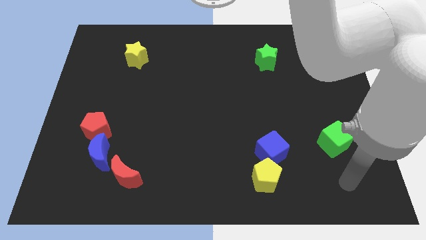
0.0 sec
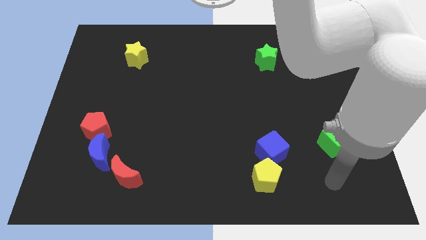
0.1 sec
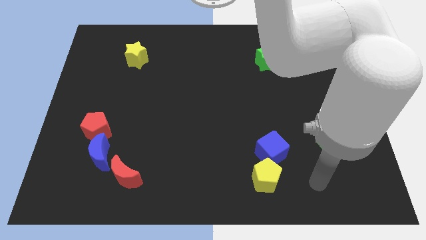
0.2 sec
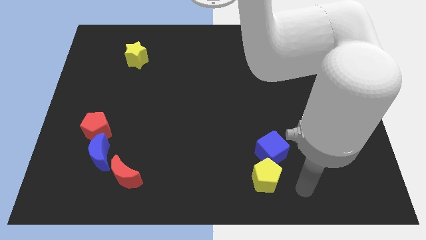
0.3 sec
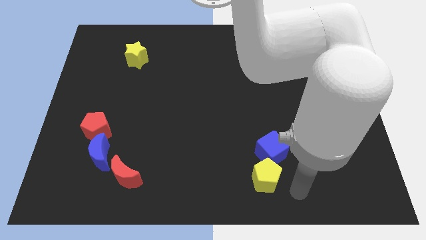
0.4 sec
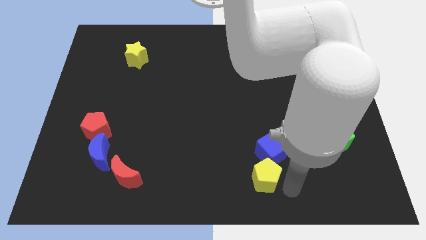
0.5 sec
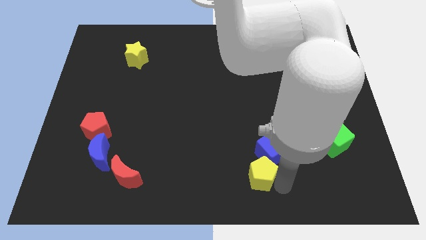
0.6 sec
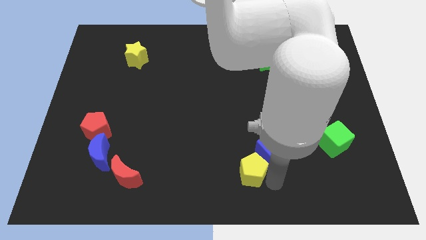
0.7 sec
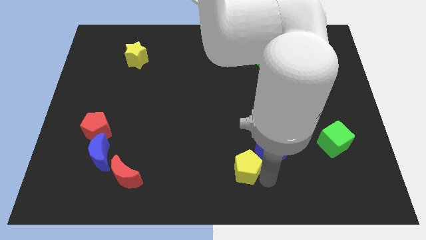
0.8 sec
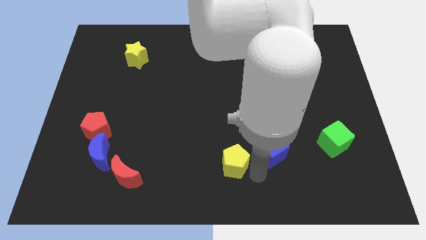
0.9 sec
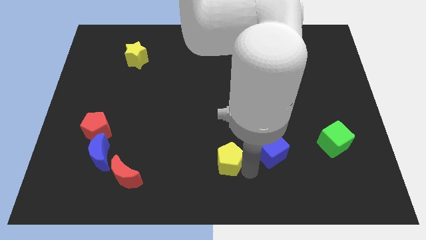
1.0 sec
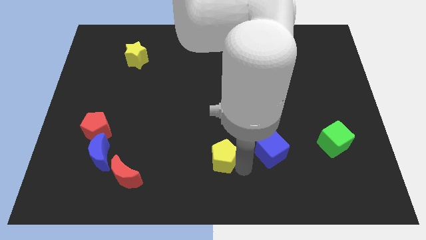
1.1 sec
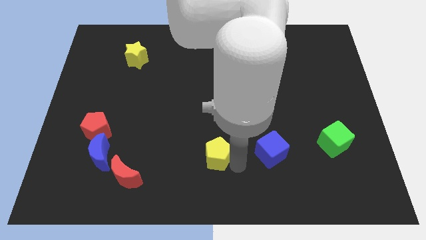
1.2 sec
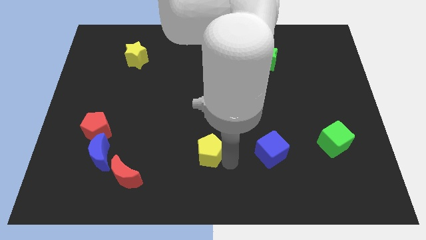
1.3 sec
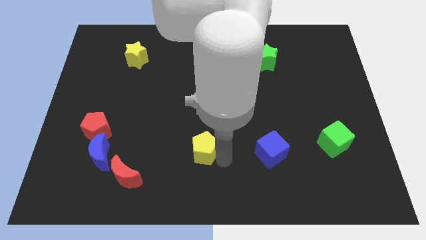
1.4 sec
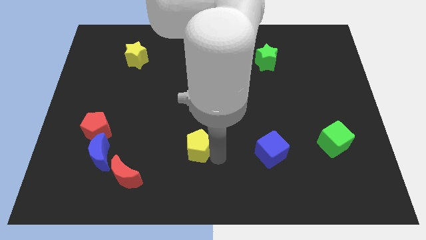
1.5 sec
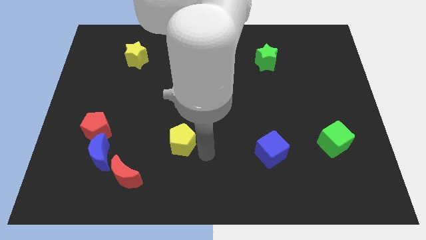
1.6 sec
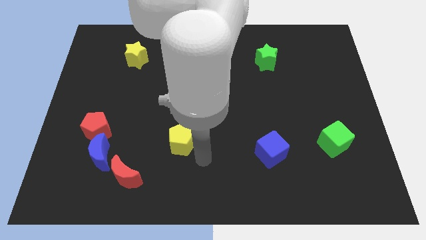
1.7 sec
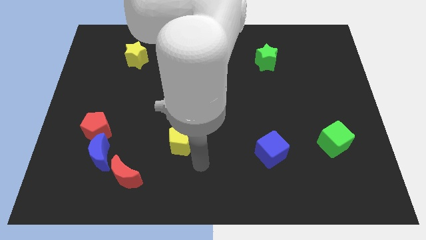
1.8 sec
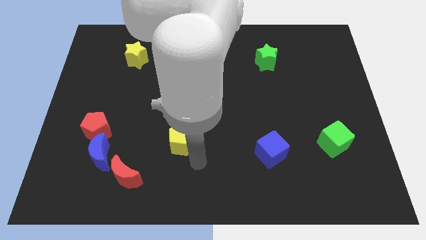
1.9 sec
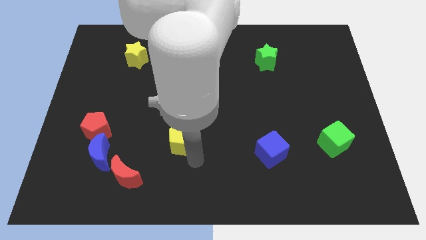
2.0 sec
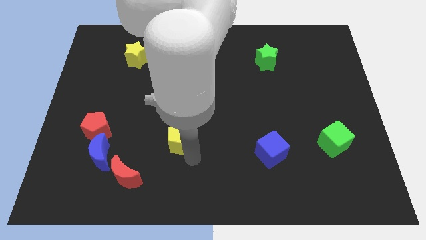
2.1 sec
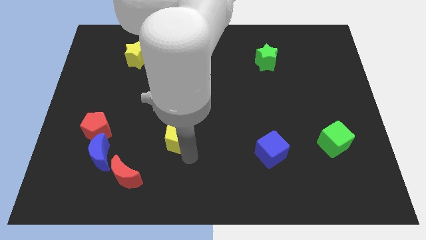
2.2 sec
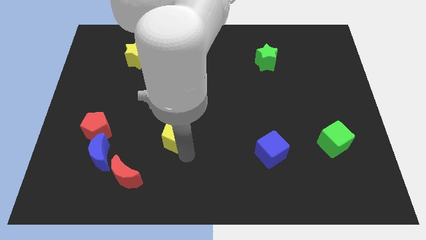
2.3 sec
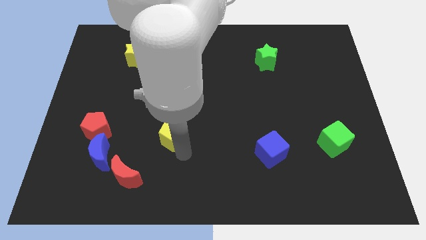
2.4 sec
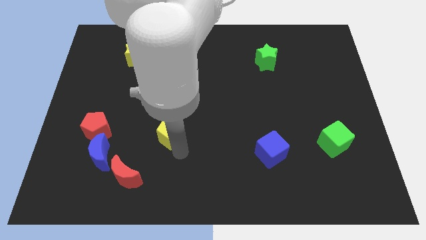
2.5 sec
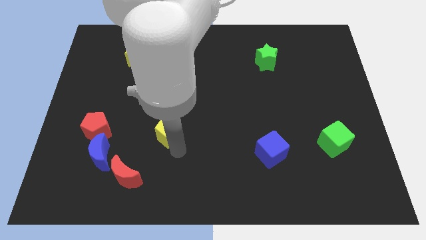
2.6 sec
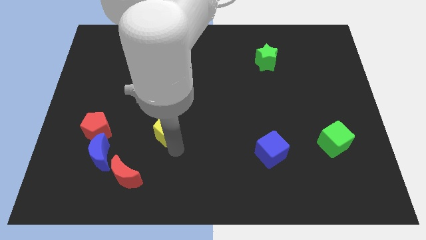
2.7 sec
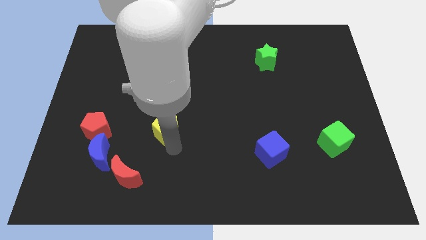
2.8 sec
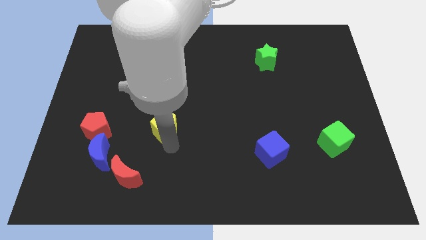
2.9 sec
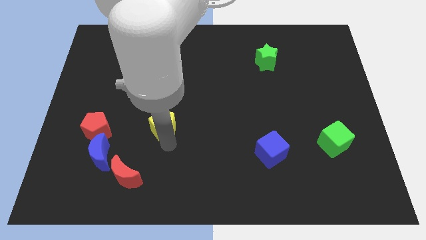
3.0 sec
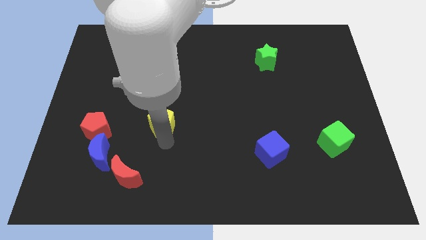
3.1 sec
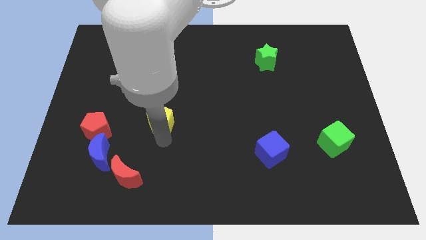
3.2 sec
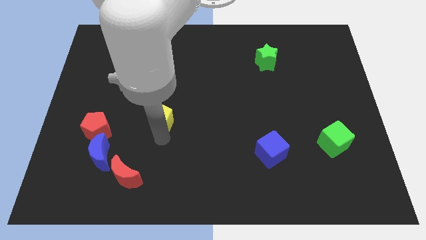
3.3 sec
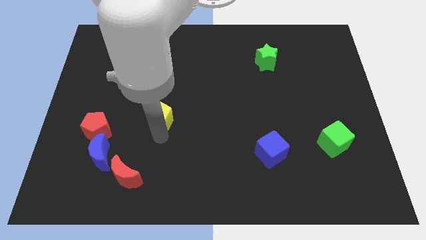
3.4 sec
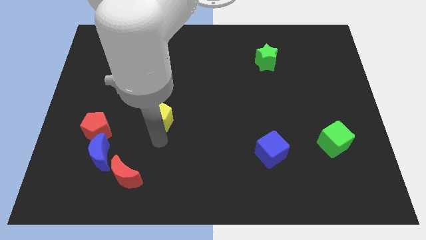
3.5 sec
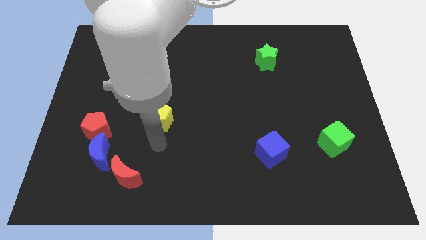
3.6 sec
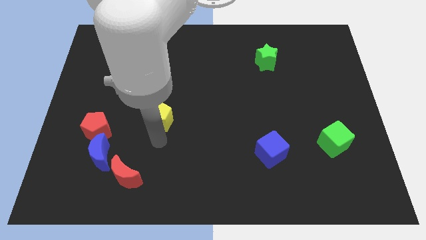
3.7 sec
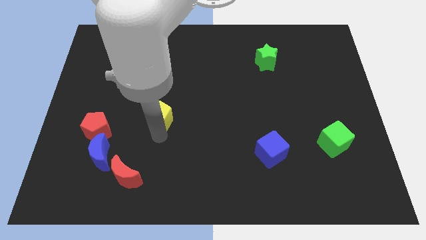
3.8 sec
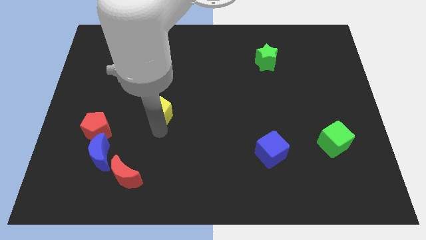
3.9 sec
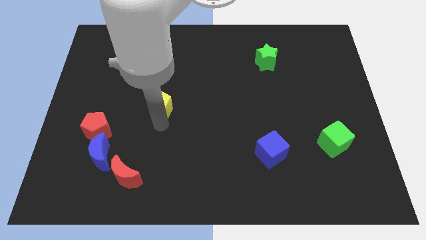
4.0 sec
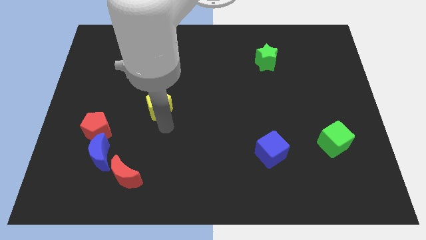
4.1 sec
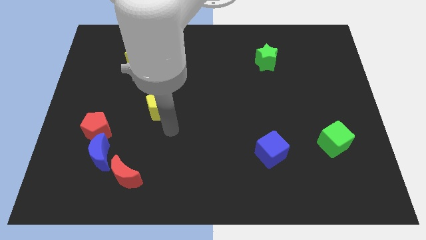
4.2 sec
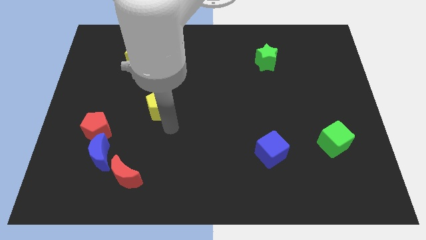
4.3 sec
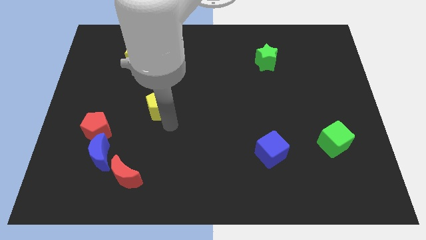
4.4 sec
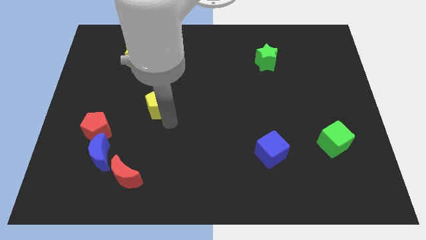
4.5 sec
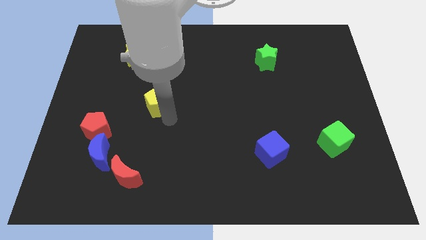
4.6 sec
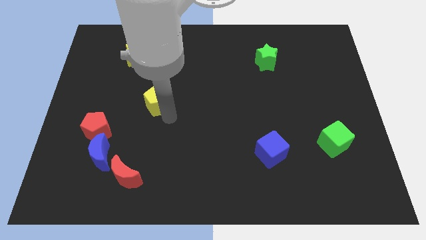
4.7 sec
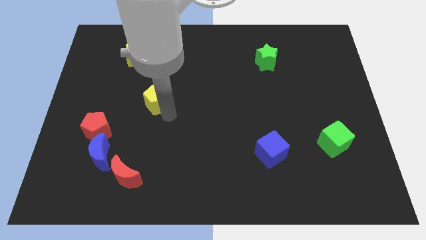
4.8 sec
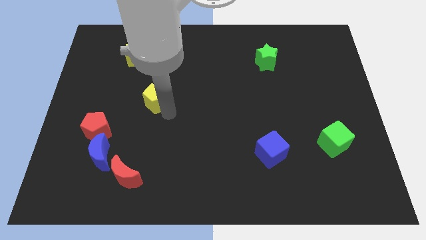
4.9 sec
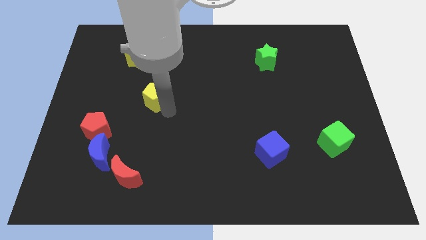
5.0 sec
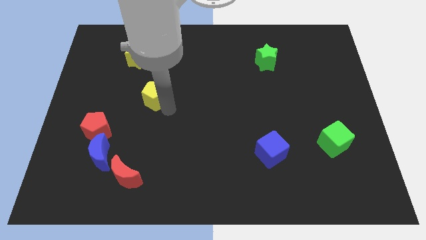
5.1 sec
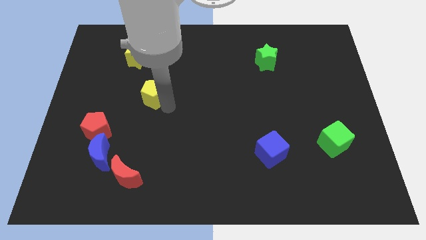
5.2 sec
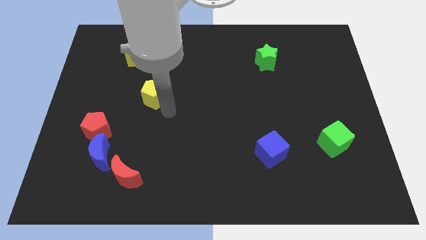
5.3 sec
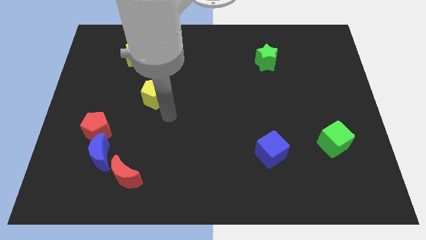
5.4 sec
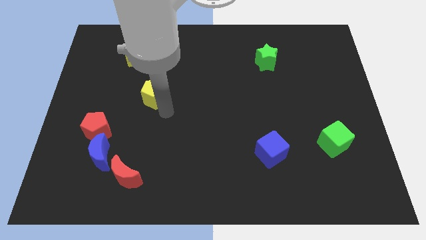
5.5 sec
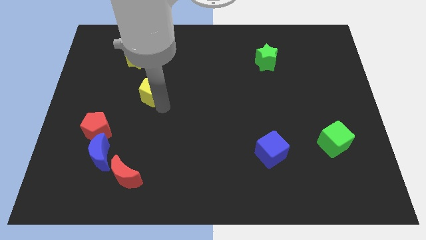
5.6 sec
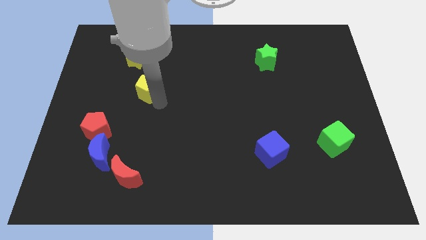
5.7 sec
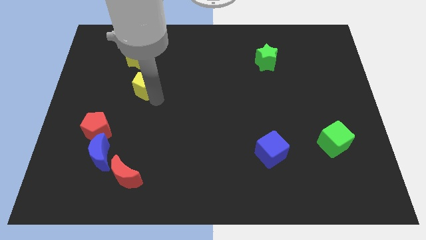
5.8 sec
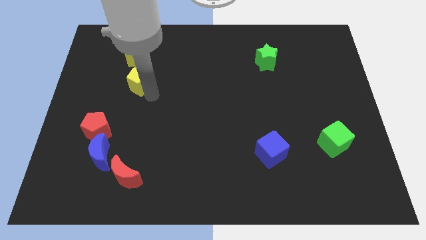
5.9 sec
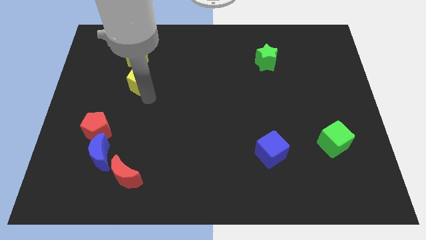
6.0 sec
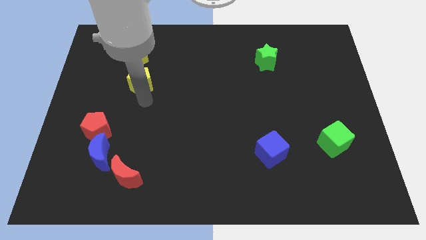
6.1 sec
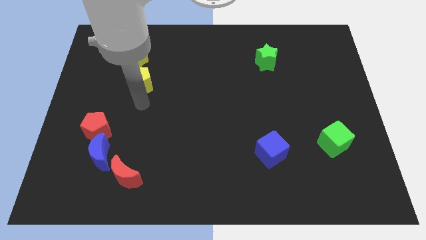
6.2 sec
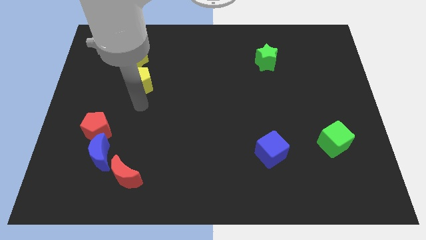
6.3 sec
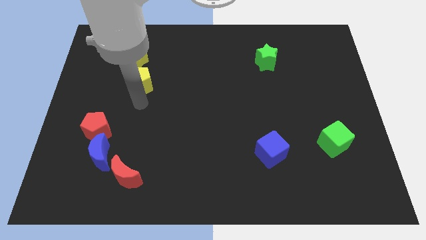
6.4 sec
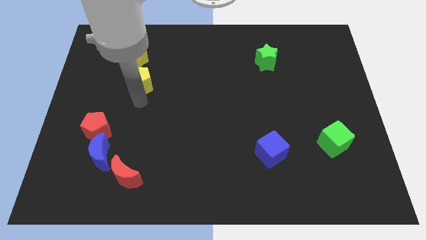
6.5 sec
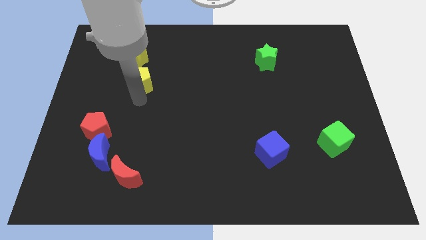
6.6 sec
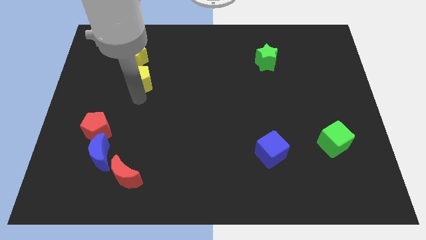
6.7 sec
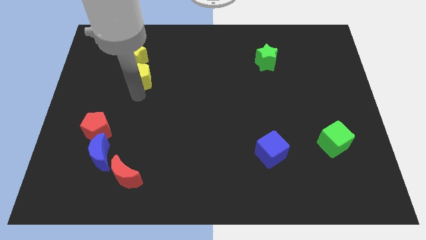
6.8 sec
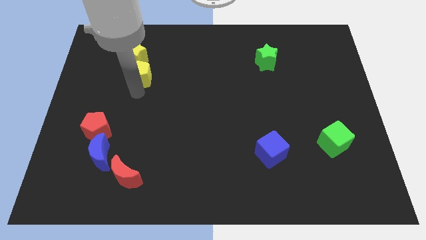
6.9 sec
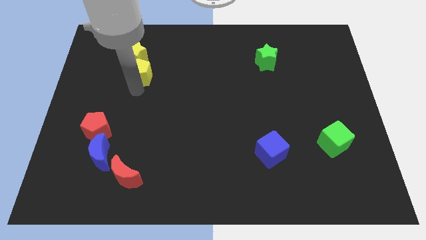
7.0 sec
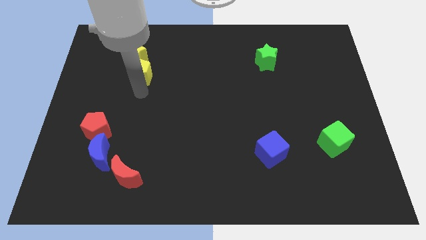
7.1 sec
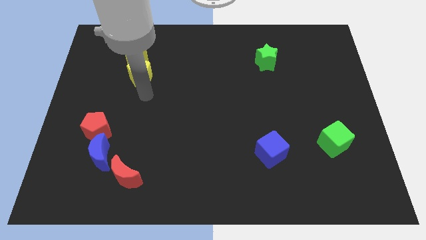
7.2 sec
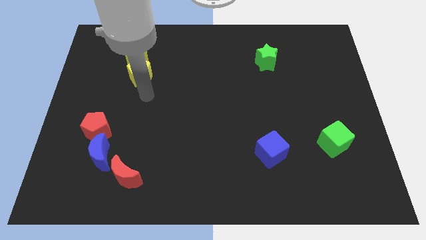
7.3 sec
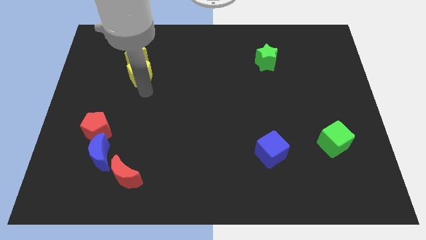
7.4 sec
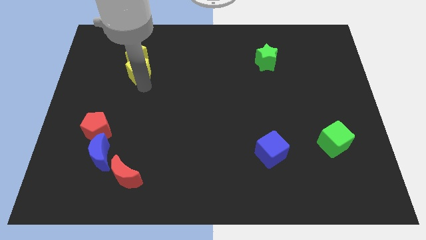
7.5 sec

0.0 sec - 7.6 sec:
slide the yellow pentagon close to the yellow star
